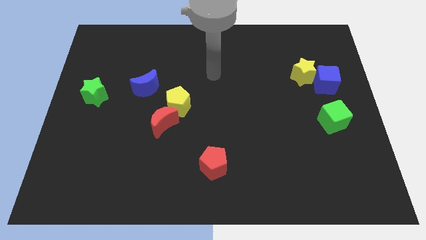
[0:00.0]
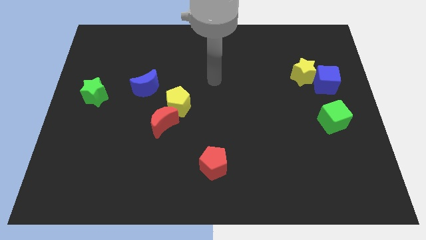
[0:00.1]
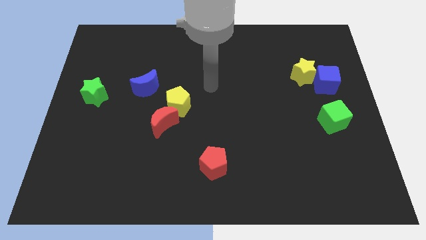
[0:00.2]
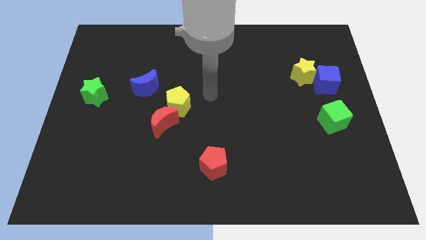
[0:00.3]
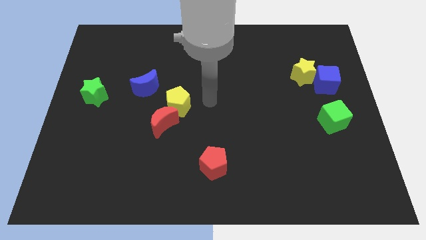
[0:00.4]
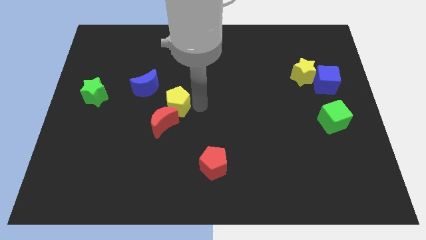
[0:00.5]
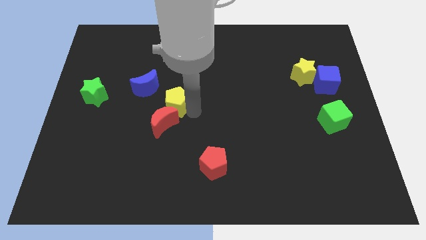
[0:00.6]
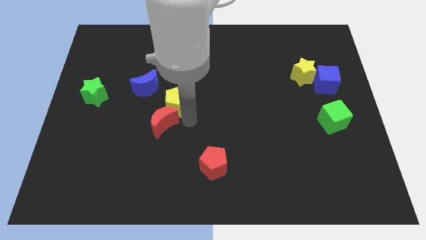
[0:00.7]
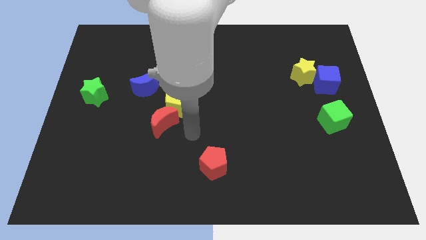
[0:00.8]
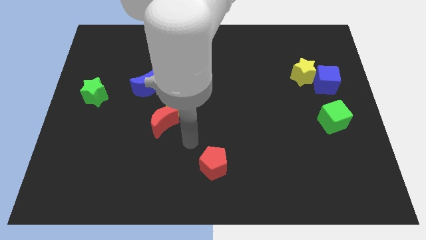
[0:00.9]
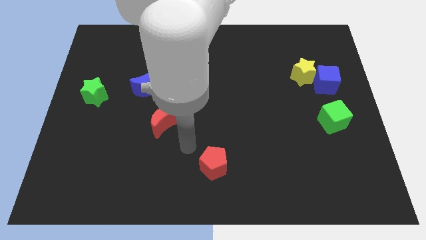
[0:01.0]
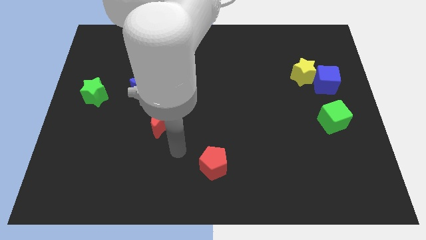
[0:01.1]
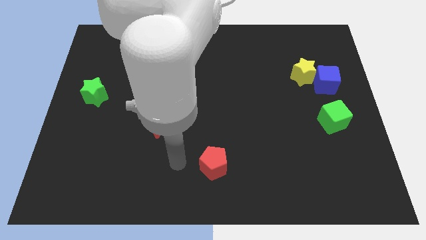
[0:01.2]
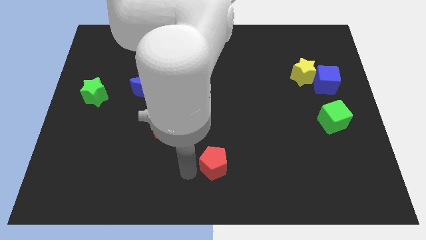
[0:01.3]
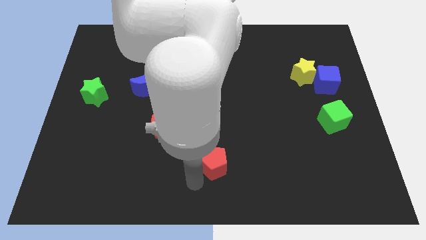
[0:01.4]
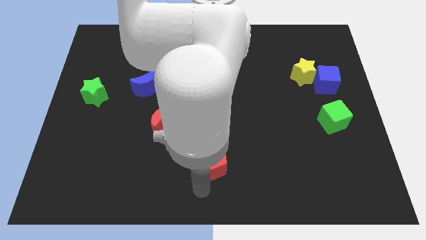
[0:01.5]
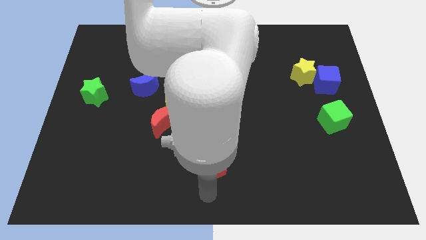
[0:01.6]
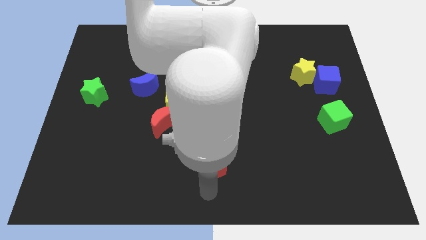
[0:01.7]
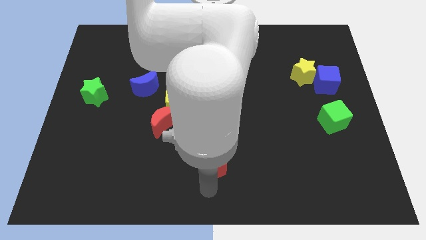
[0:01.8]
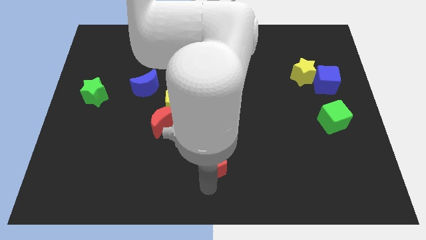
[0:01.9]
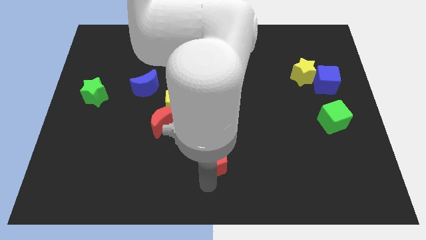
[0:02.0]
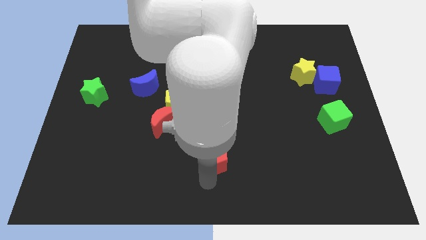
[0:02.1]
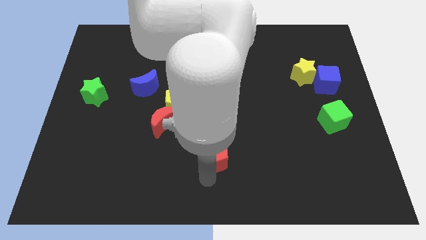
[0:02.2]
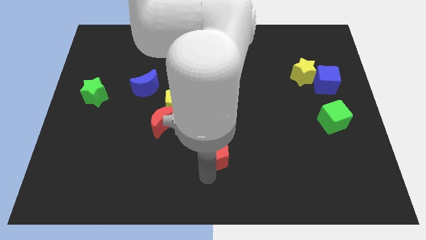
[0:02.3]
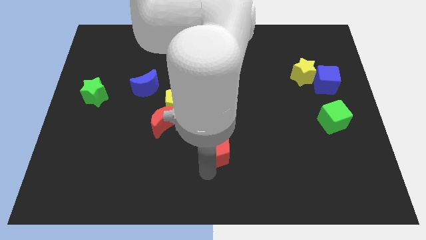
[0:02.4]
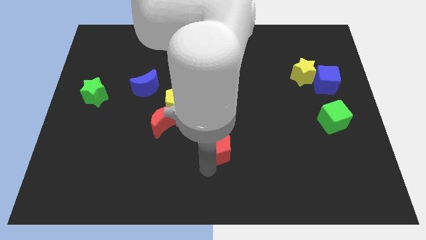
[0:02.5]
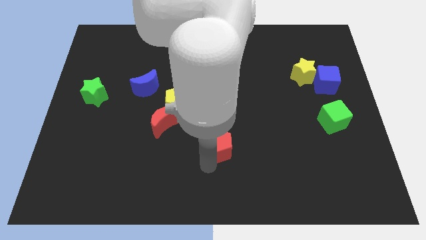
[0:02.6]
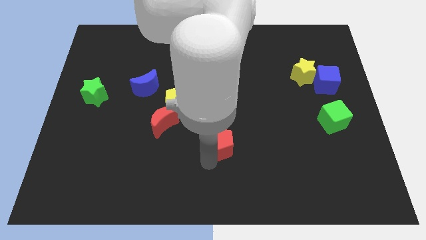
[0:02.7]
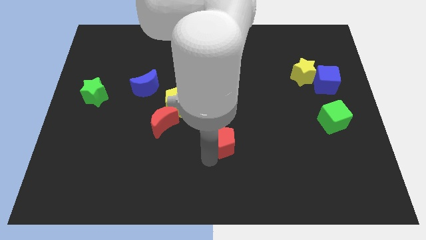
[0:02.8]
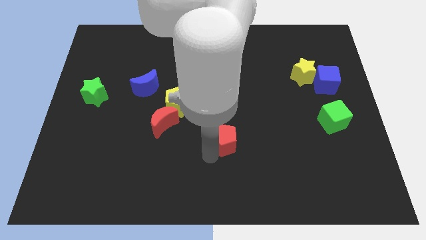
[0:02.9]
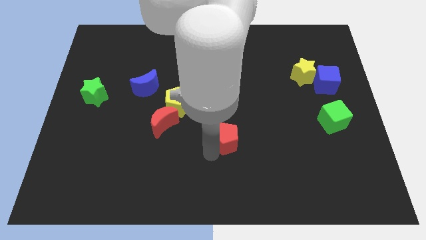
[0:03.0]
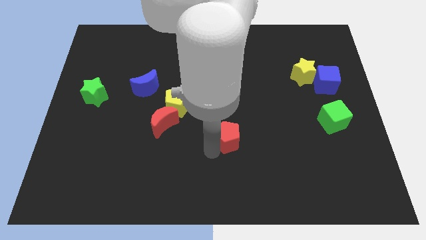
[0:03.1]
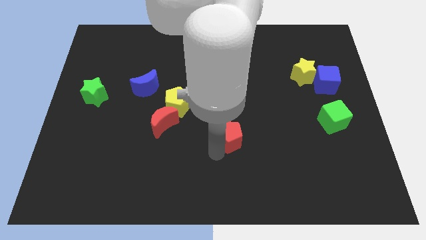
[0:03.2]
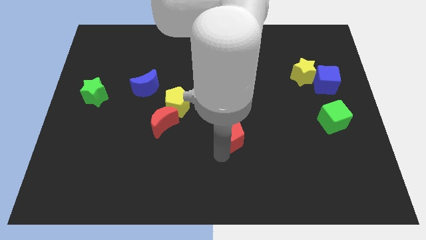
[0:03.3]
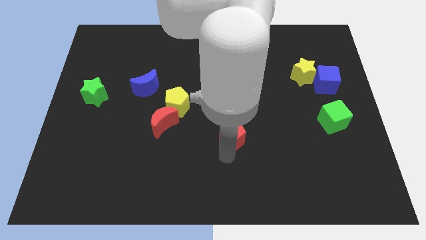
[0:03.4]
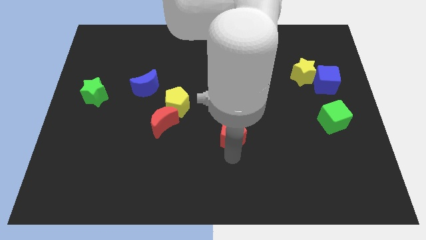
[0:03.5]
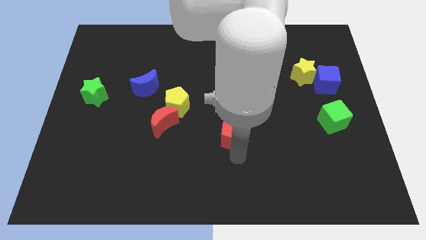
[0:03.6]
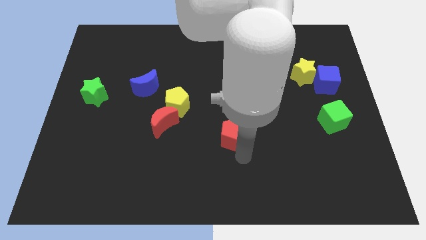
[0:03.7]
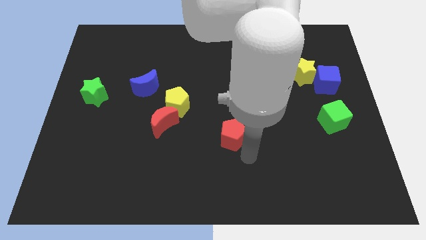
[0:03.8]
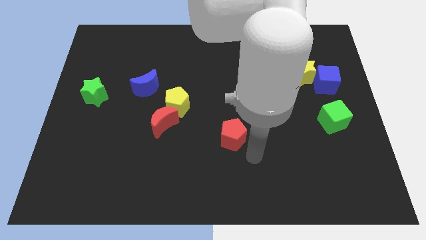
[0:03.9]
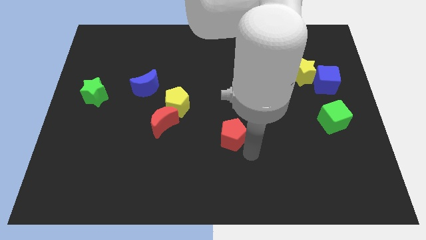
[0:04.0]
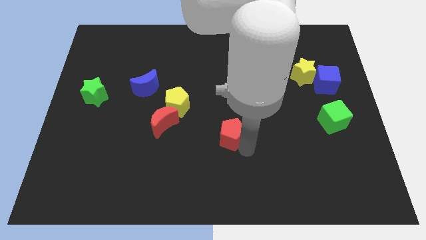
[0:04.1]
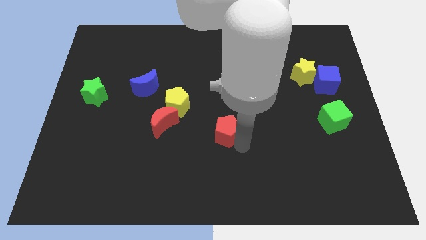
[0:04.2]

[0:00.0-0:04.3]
slightly slide the red pentagon upwards

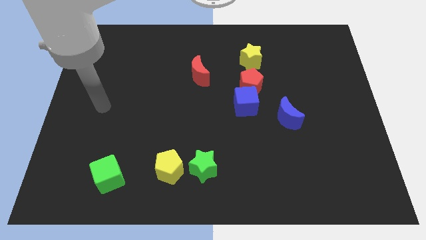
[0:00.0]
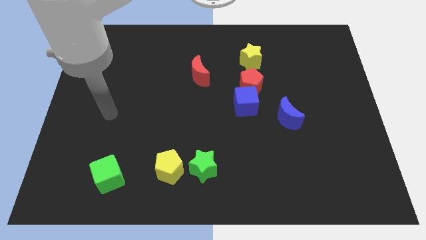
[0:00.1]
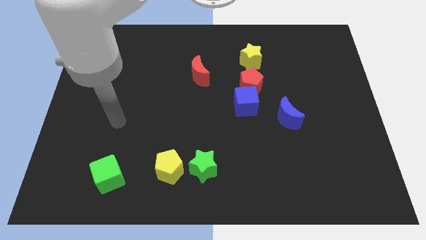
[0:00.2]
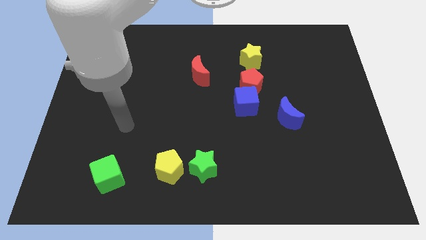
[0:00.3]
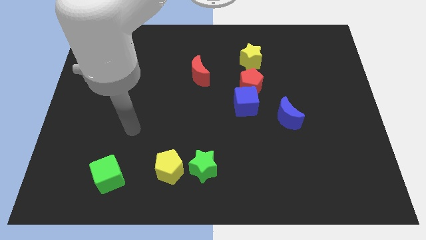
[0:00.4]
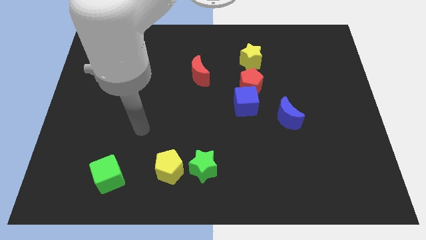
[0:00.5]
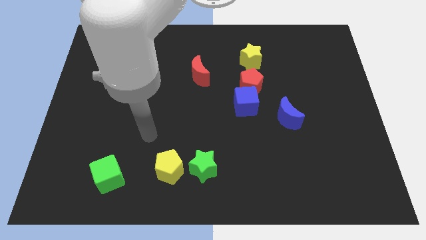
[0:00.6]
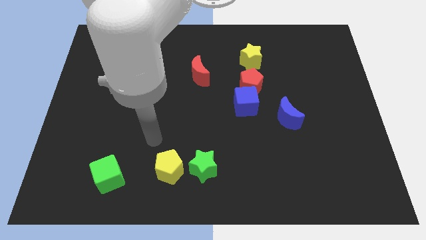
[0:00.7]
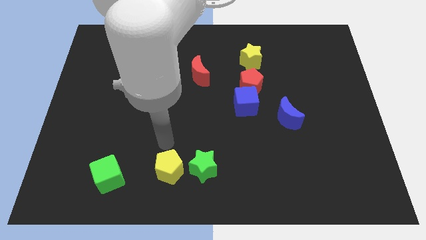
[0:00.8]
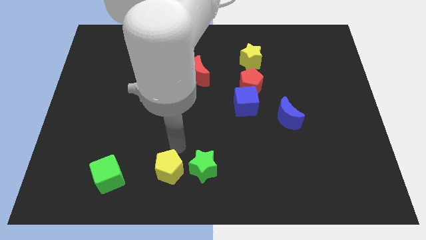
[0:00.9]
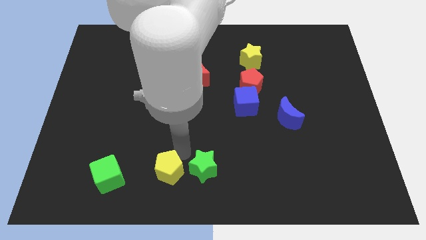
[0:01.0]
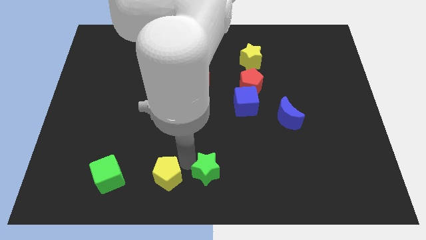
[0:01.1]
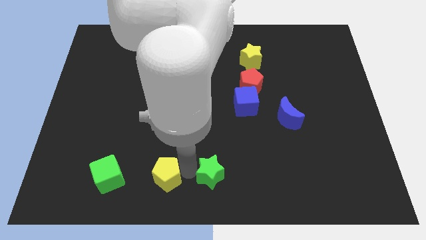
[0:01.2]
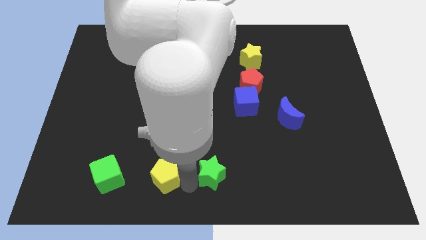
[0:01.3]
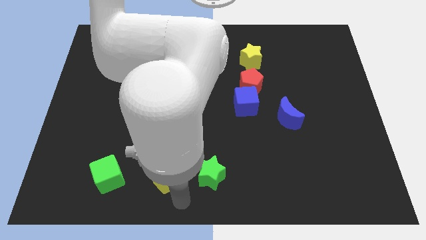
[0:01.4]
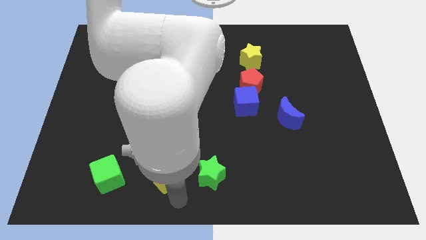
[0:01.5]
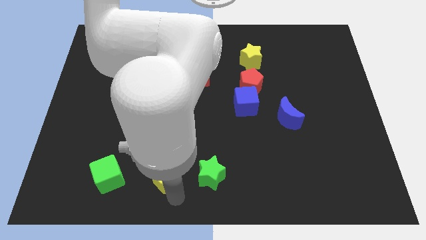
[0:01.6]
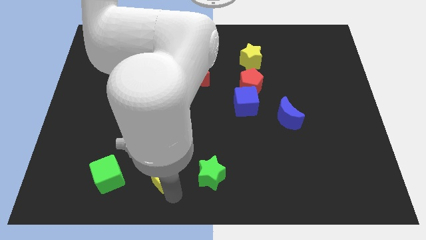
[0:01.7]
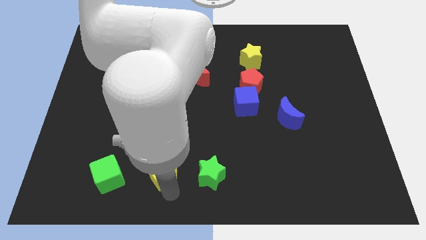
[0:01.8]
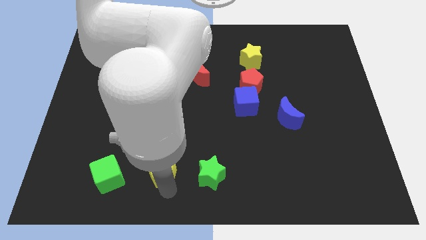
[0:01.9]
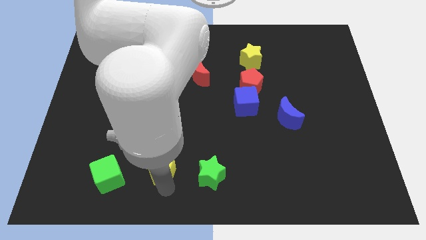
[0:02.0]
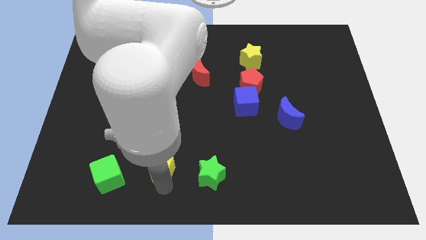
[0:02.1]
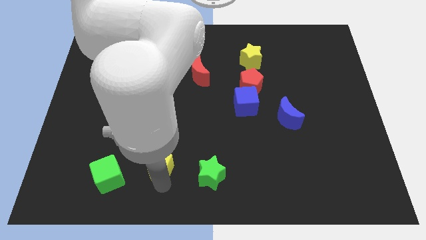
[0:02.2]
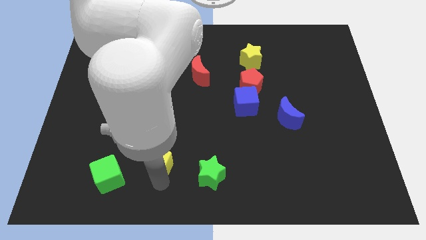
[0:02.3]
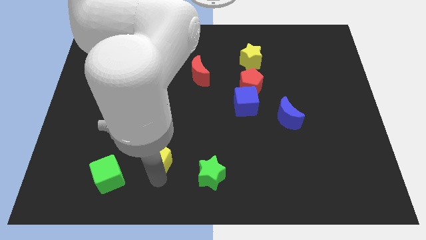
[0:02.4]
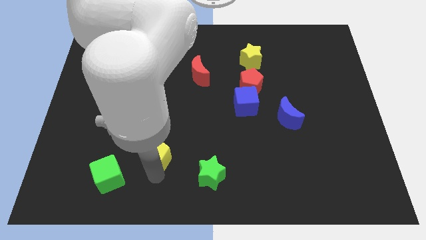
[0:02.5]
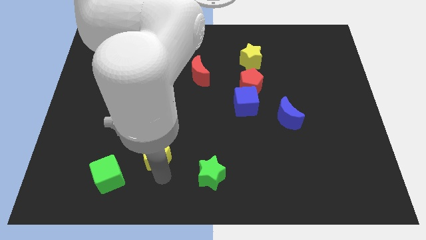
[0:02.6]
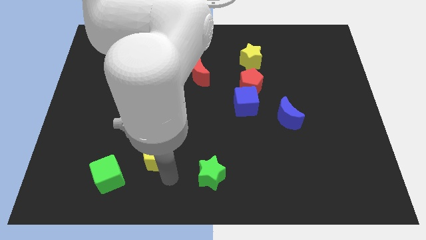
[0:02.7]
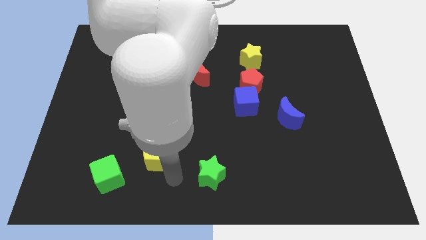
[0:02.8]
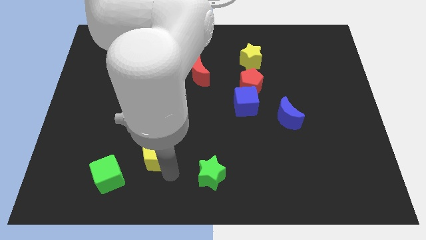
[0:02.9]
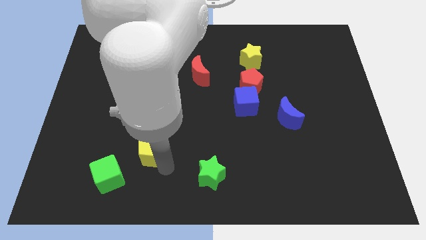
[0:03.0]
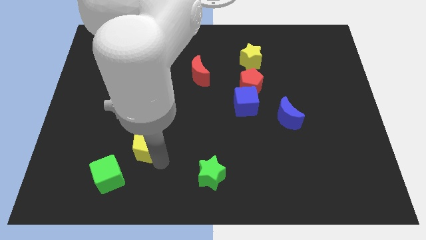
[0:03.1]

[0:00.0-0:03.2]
slide the yellow pentagon upwards and then left a bit

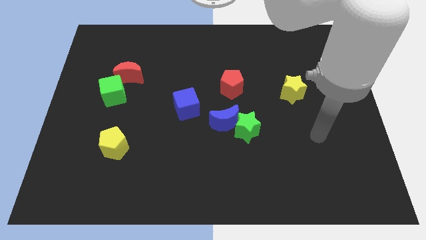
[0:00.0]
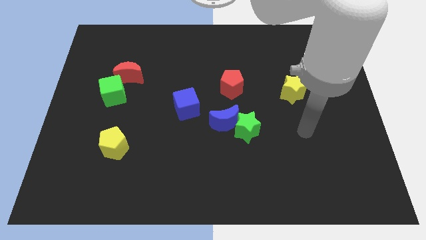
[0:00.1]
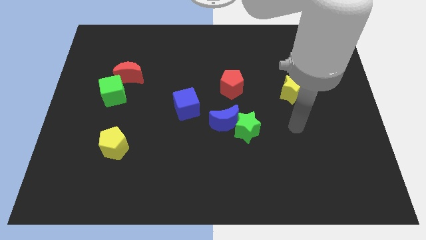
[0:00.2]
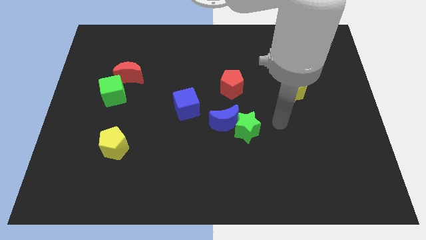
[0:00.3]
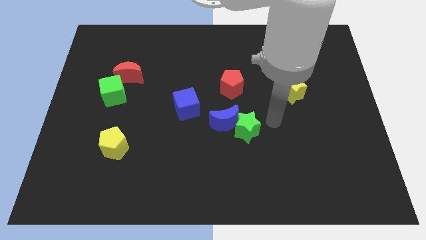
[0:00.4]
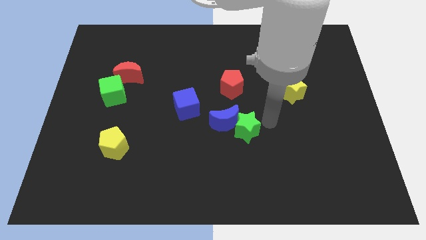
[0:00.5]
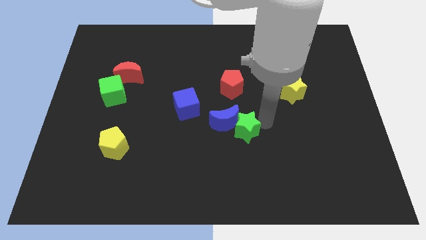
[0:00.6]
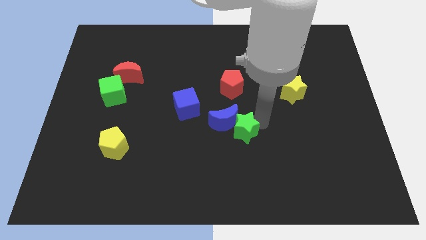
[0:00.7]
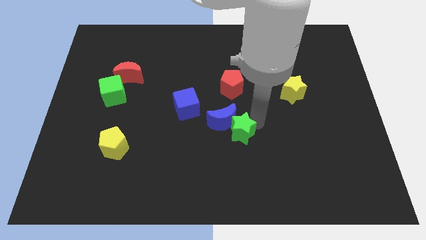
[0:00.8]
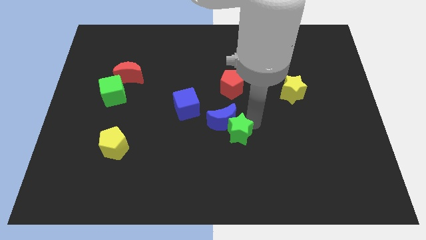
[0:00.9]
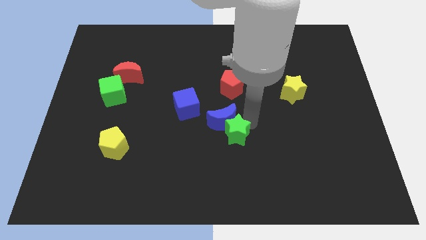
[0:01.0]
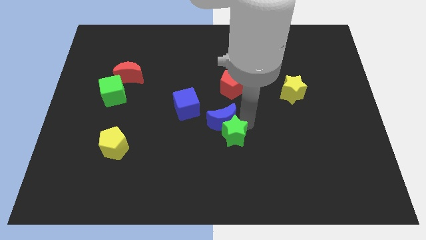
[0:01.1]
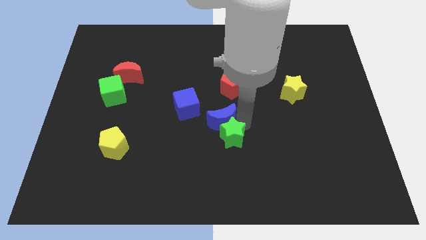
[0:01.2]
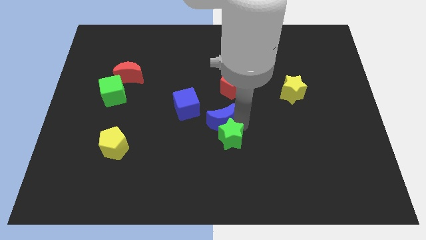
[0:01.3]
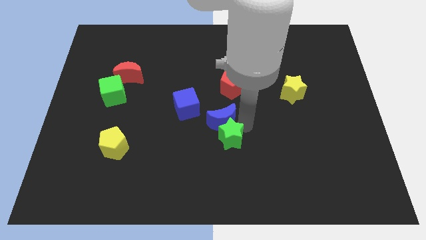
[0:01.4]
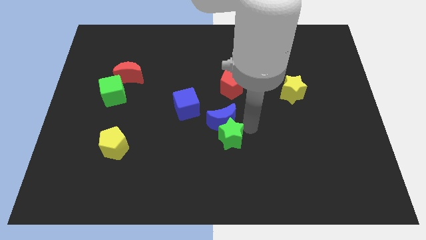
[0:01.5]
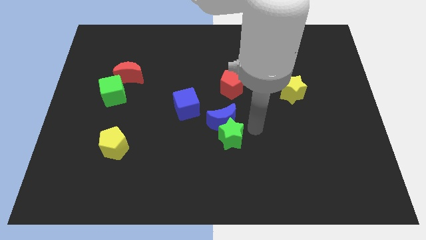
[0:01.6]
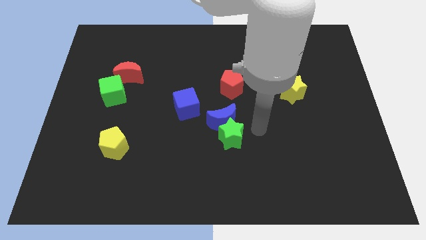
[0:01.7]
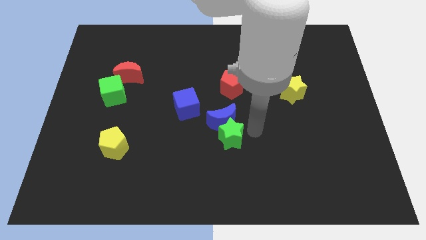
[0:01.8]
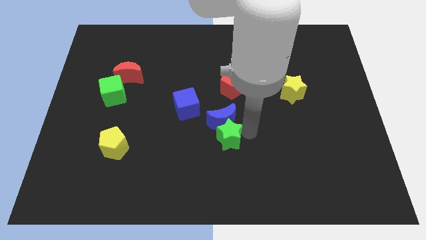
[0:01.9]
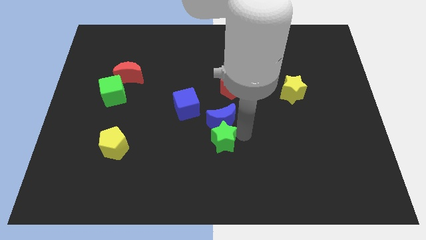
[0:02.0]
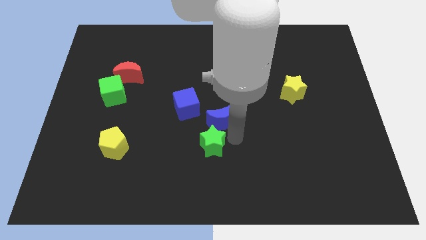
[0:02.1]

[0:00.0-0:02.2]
slightly push the green star left
